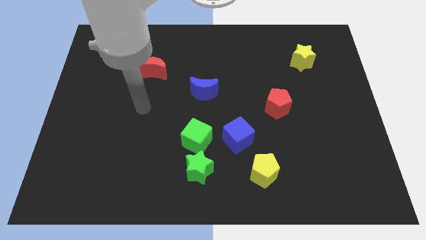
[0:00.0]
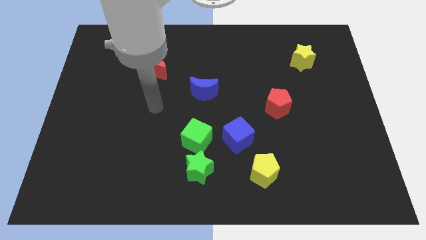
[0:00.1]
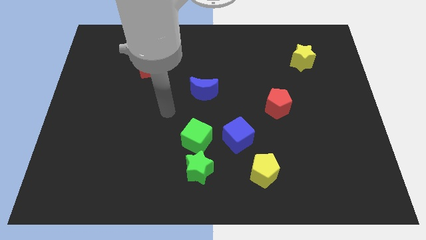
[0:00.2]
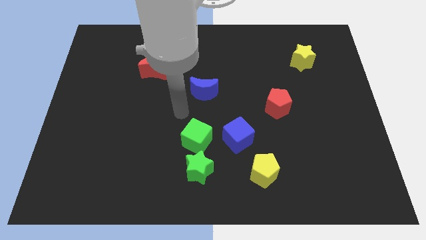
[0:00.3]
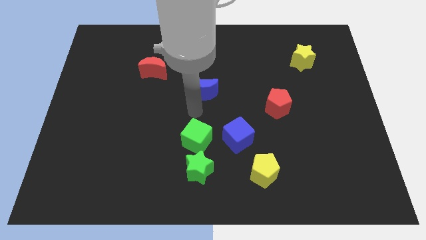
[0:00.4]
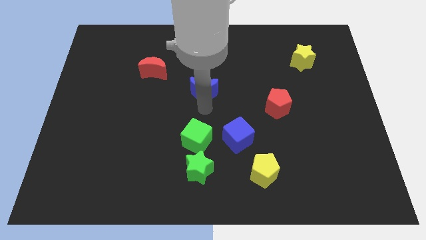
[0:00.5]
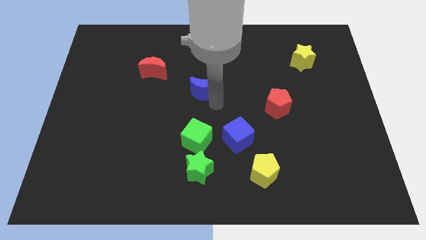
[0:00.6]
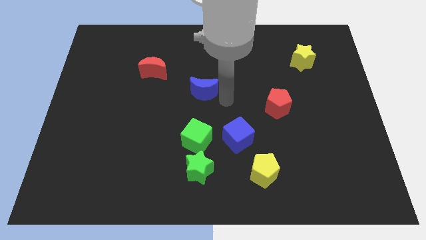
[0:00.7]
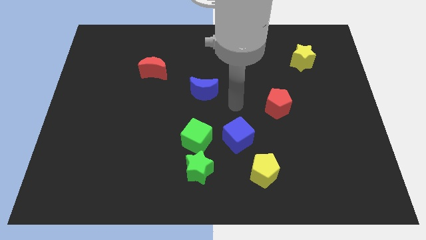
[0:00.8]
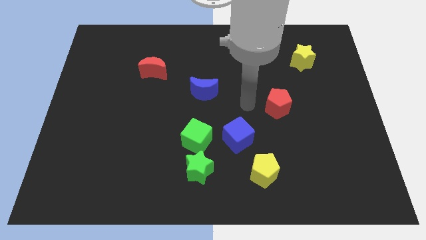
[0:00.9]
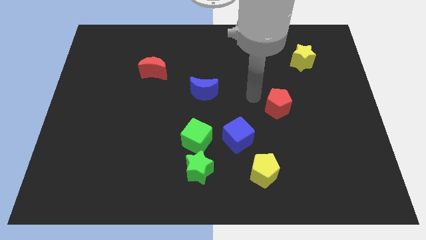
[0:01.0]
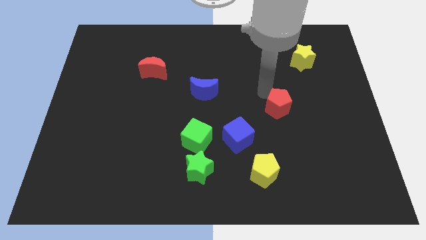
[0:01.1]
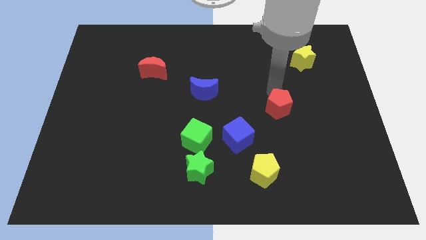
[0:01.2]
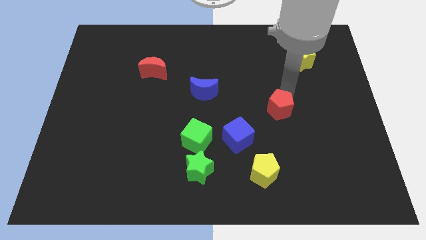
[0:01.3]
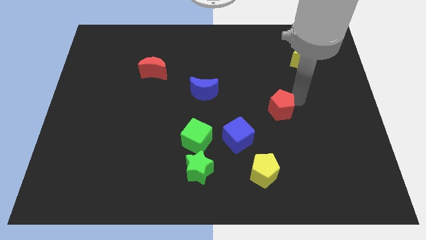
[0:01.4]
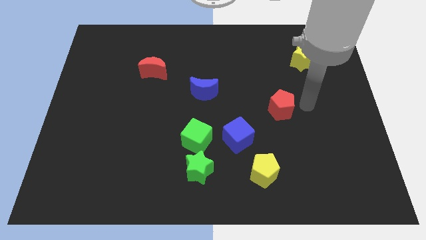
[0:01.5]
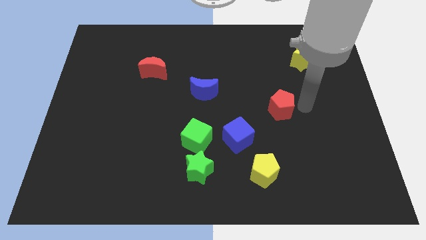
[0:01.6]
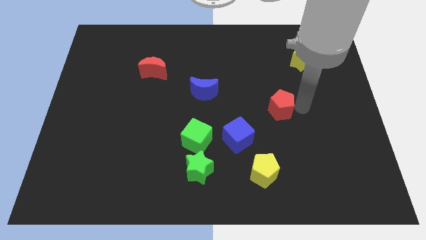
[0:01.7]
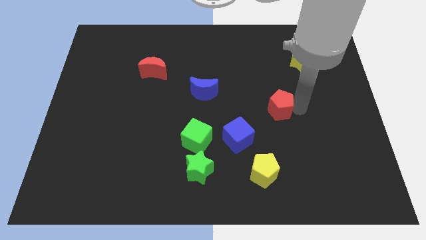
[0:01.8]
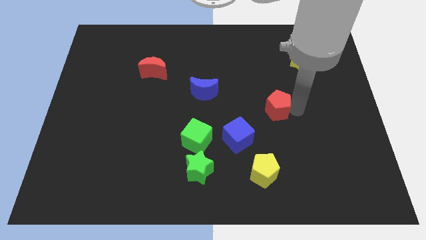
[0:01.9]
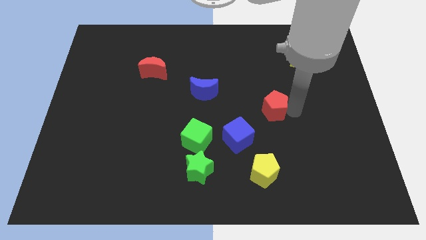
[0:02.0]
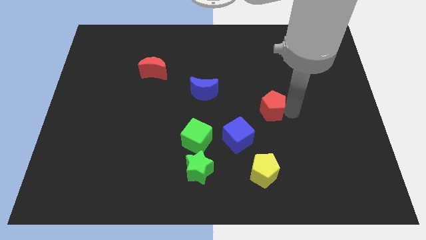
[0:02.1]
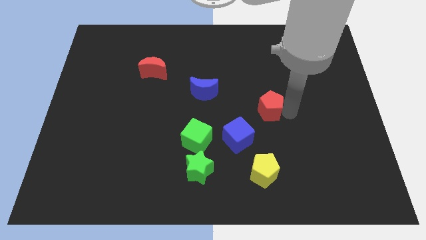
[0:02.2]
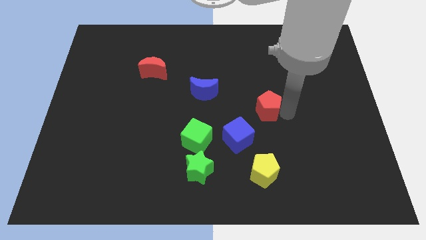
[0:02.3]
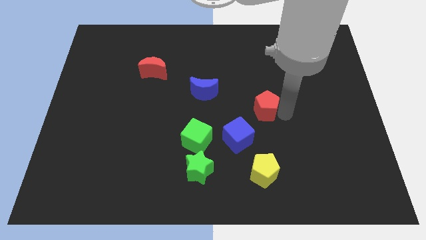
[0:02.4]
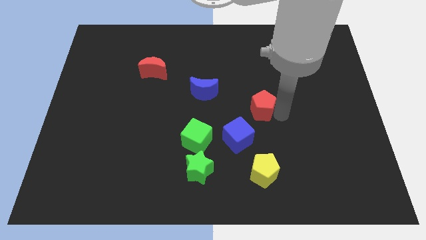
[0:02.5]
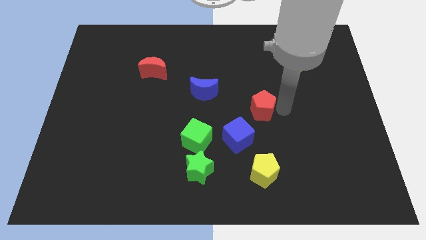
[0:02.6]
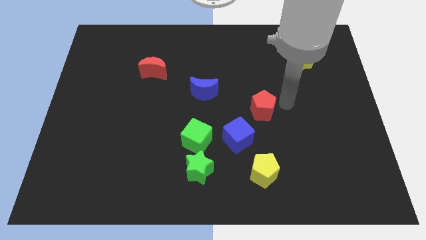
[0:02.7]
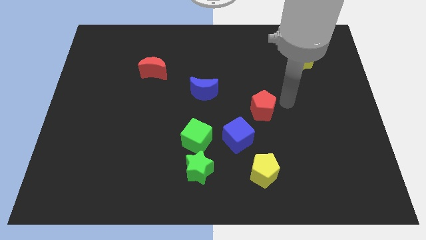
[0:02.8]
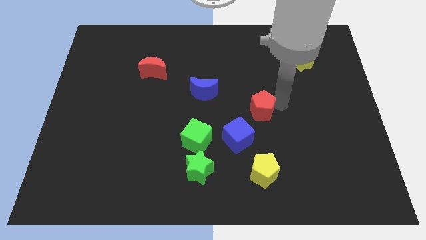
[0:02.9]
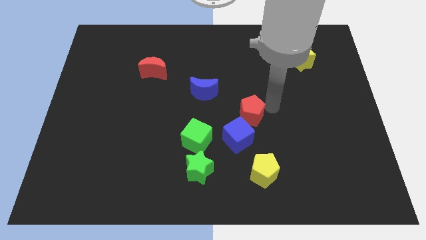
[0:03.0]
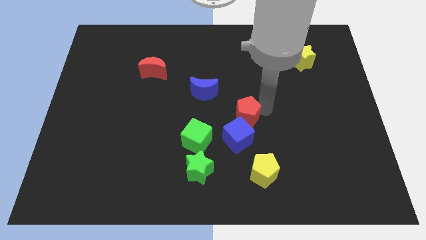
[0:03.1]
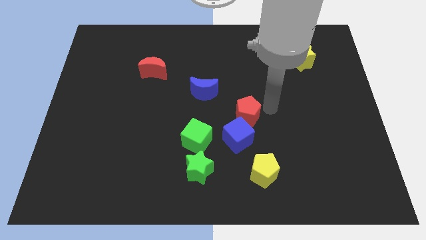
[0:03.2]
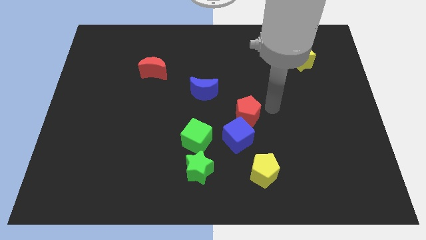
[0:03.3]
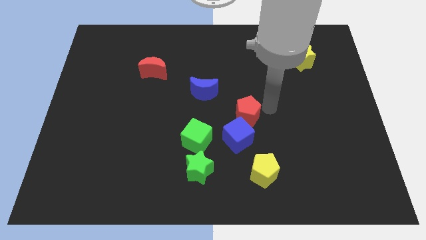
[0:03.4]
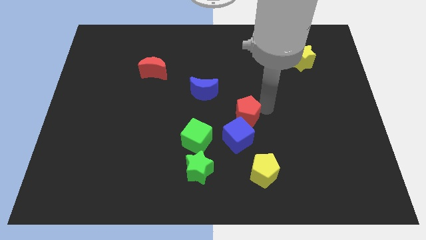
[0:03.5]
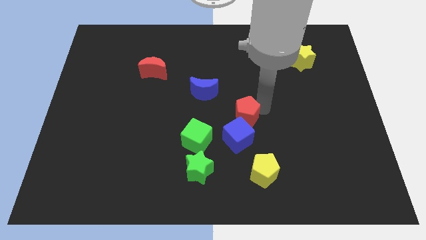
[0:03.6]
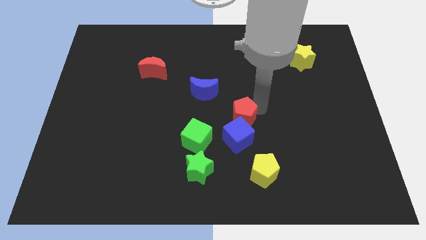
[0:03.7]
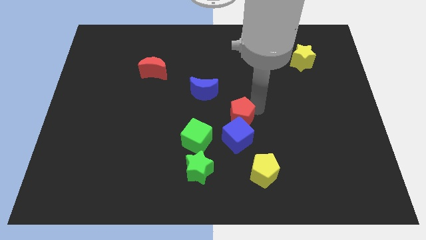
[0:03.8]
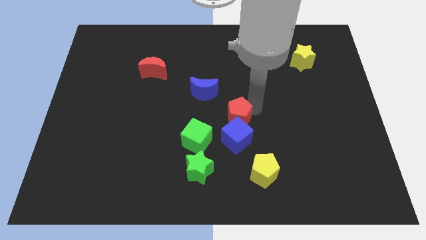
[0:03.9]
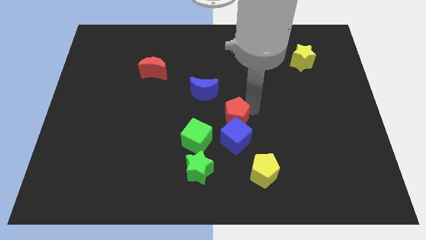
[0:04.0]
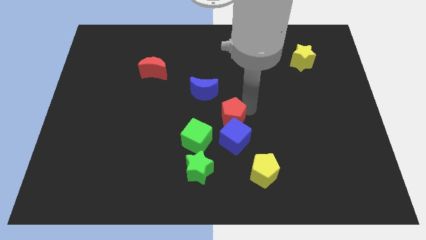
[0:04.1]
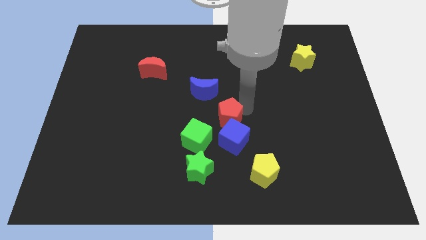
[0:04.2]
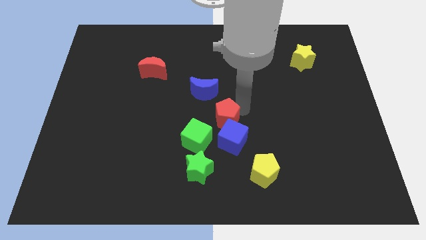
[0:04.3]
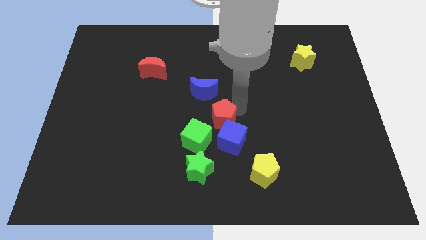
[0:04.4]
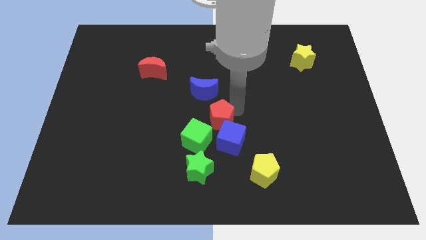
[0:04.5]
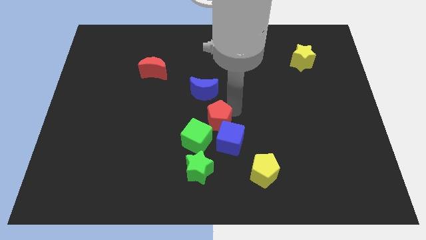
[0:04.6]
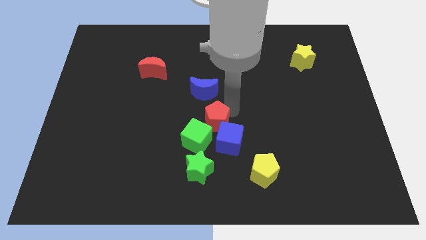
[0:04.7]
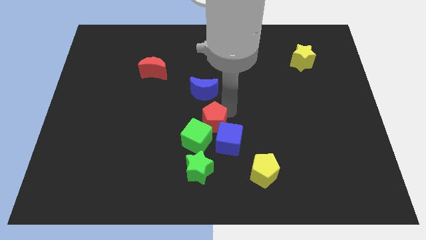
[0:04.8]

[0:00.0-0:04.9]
slide the red pentagon next to the green cube

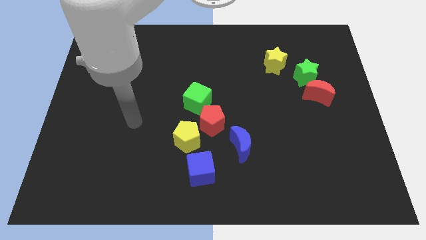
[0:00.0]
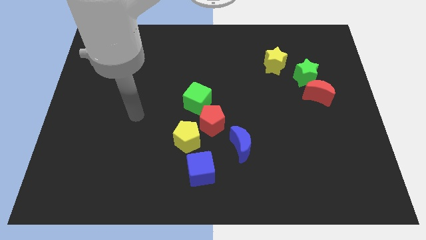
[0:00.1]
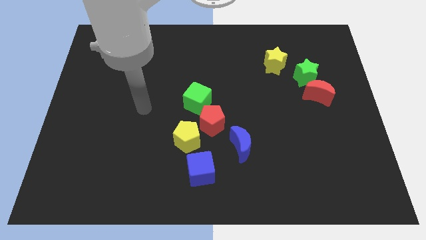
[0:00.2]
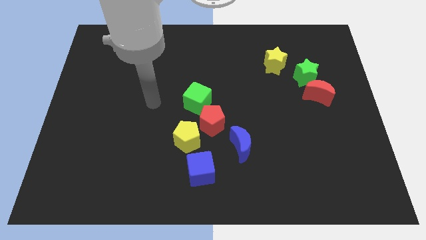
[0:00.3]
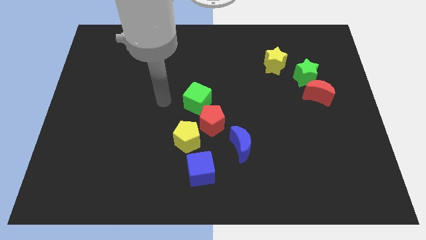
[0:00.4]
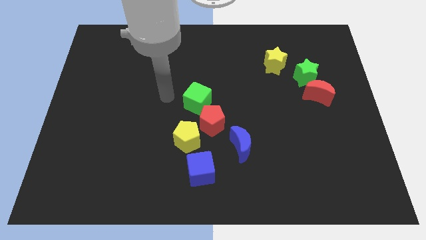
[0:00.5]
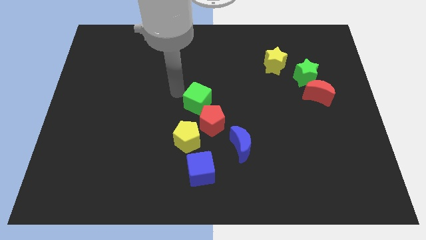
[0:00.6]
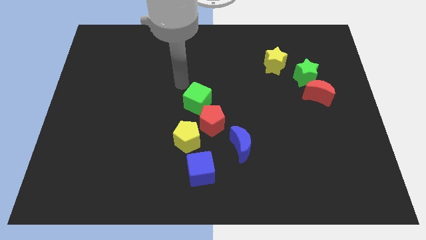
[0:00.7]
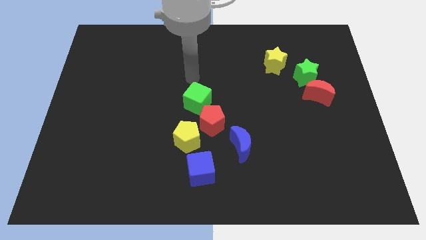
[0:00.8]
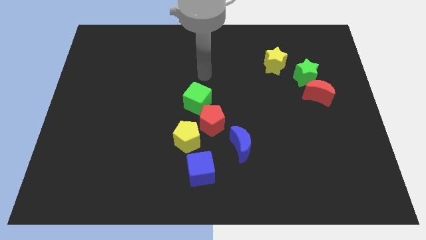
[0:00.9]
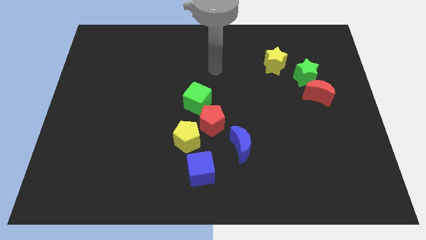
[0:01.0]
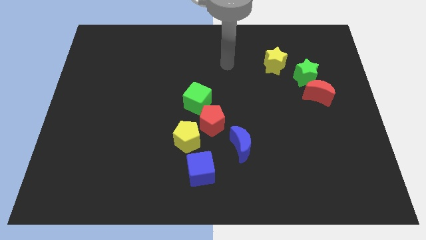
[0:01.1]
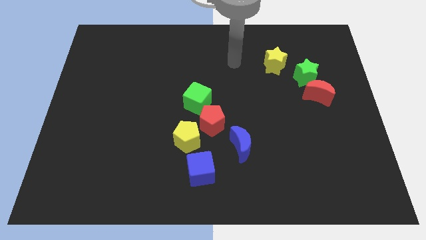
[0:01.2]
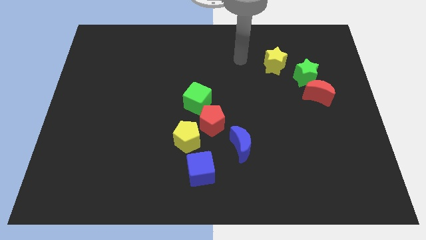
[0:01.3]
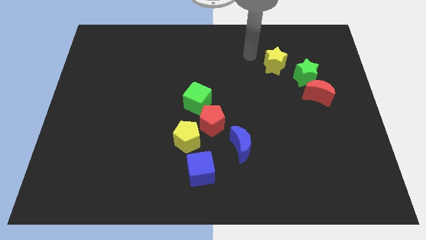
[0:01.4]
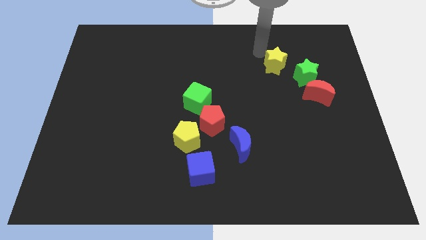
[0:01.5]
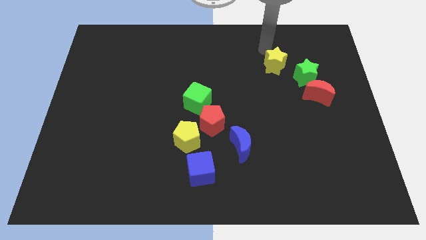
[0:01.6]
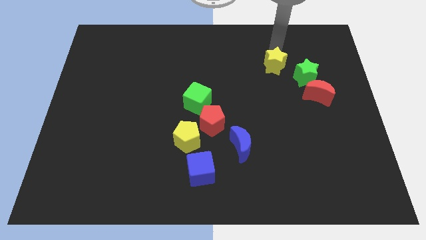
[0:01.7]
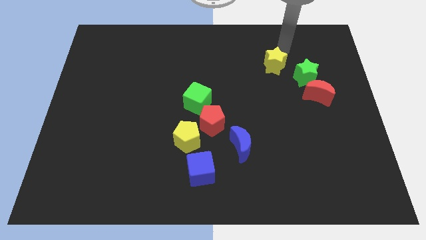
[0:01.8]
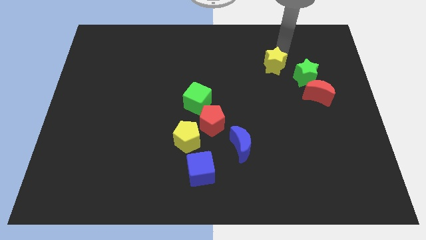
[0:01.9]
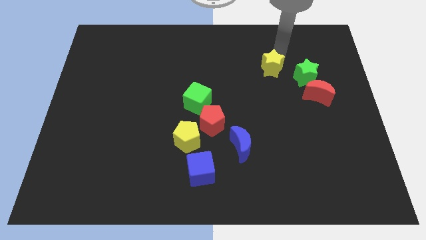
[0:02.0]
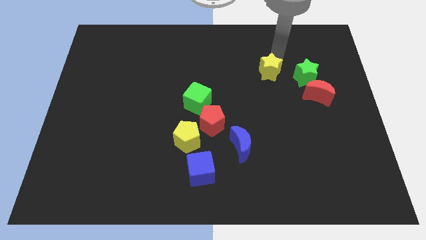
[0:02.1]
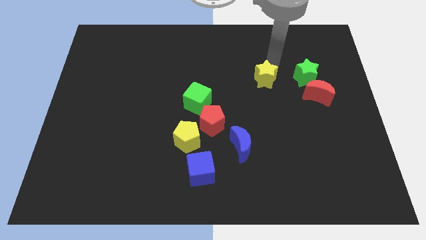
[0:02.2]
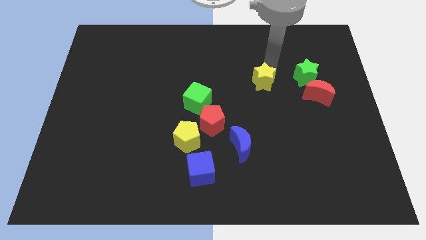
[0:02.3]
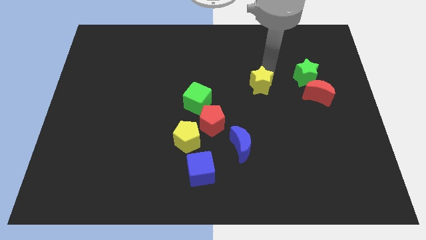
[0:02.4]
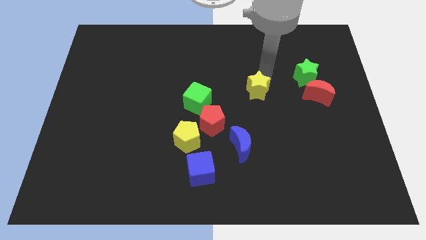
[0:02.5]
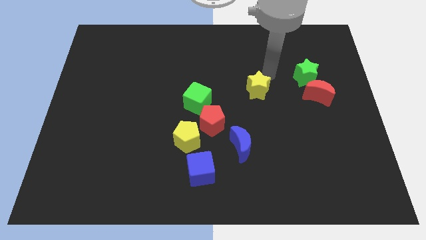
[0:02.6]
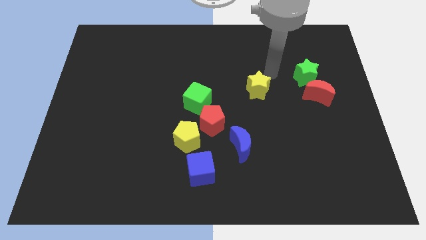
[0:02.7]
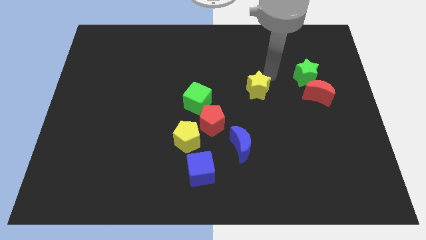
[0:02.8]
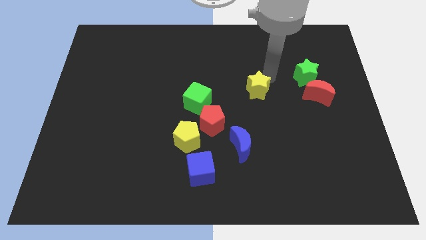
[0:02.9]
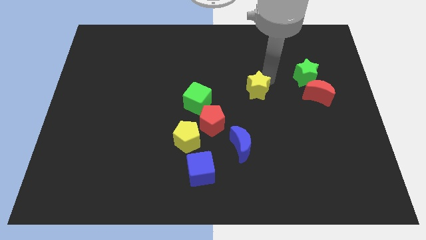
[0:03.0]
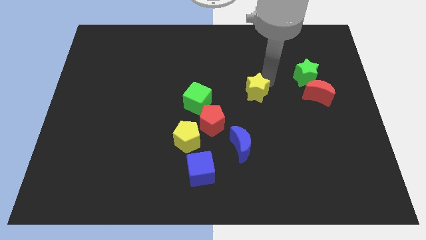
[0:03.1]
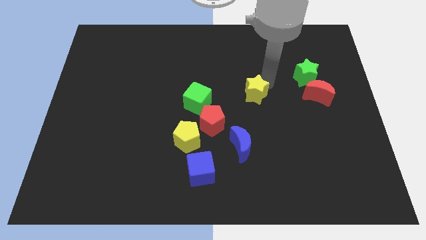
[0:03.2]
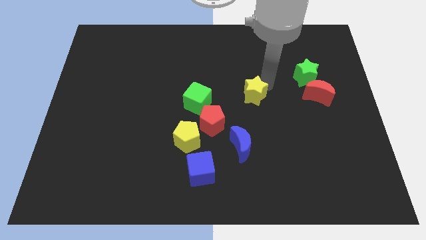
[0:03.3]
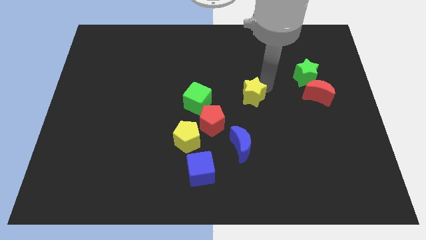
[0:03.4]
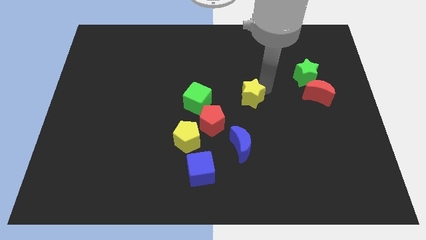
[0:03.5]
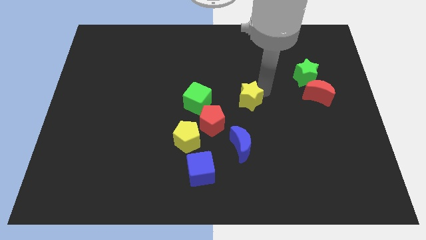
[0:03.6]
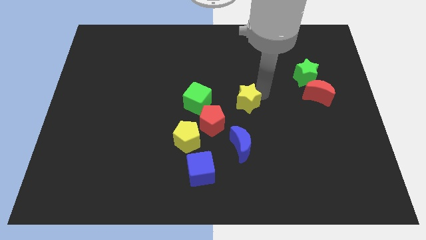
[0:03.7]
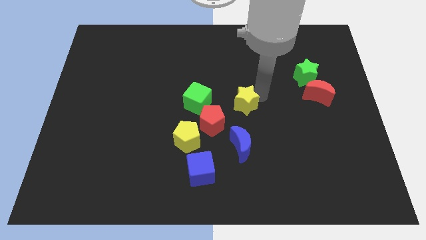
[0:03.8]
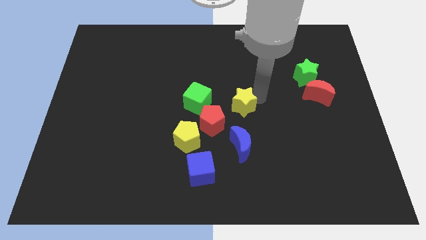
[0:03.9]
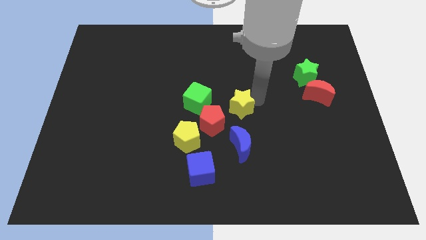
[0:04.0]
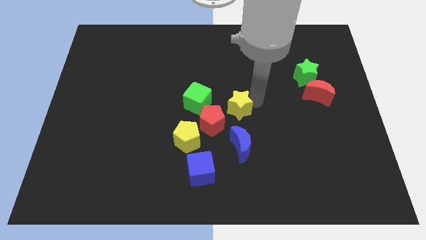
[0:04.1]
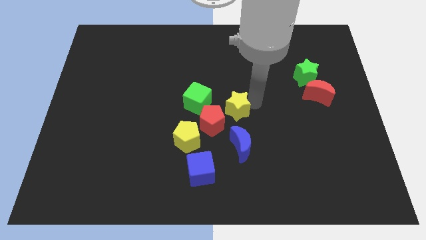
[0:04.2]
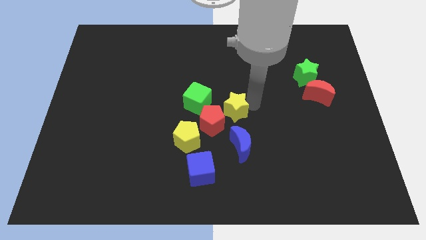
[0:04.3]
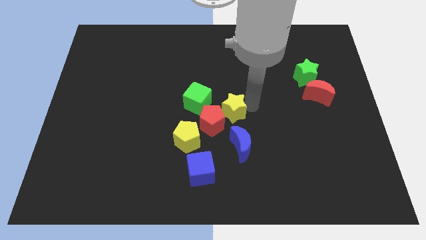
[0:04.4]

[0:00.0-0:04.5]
put the yellow star next to the red pentagon
